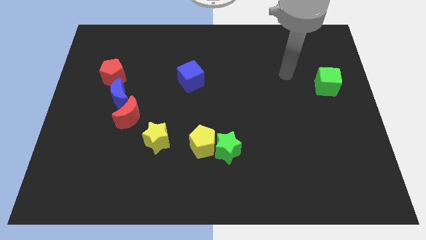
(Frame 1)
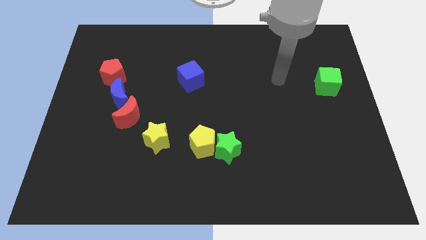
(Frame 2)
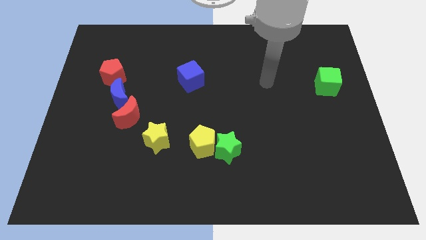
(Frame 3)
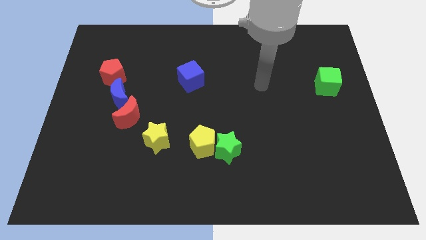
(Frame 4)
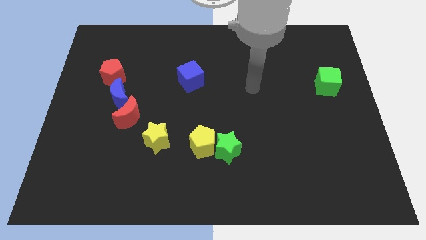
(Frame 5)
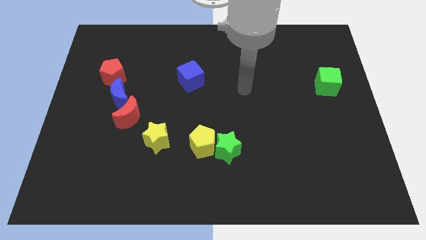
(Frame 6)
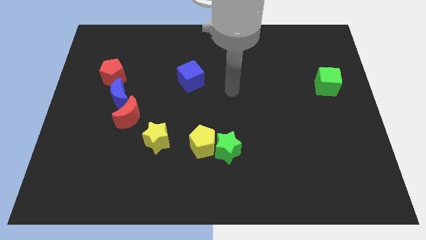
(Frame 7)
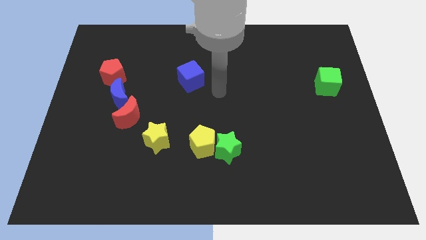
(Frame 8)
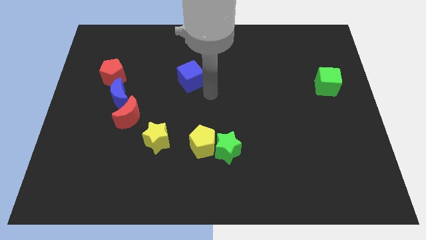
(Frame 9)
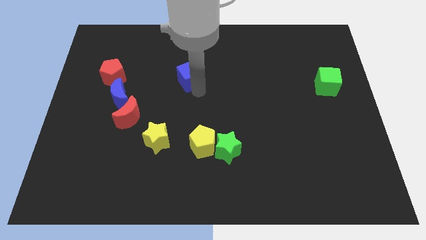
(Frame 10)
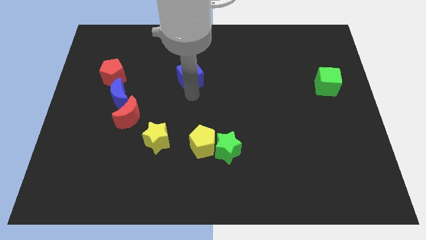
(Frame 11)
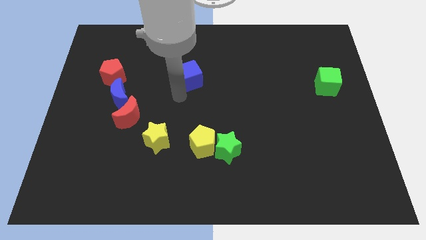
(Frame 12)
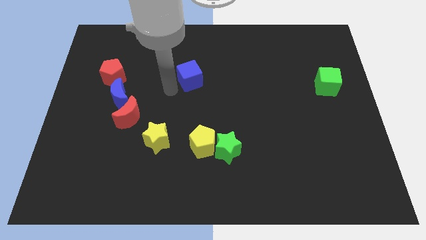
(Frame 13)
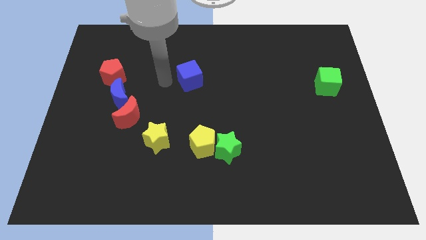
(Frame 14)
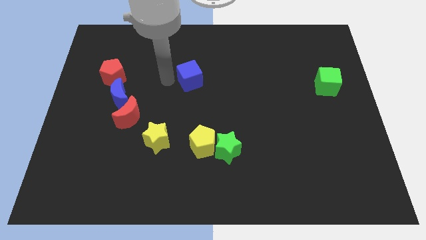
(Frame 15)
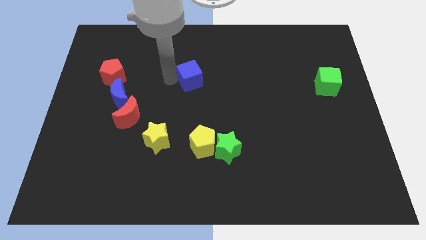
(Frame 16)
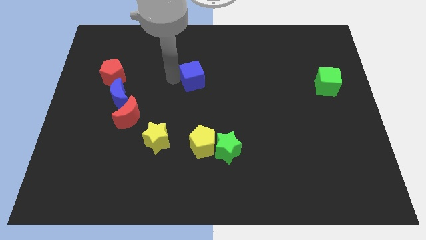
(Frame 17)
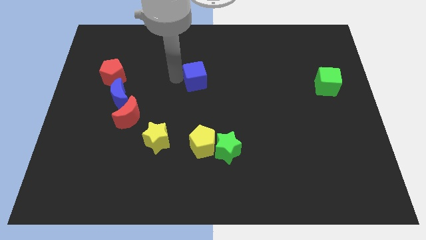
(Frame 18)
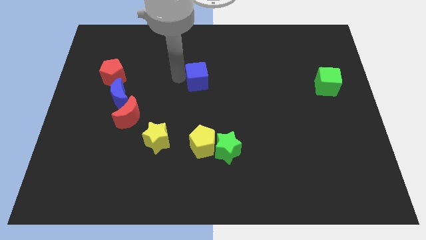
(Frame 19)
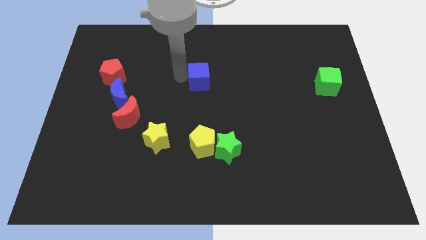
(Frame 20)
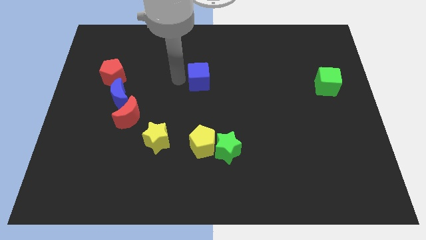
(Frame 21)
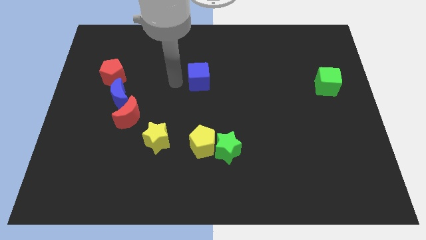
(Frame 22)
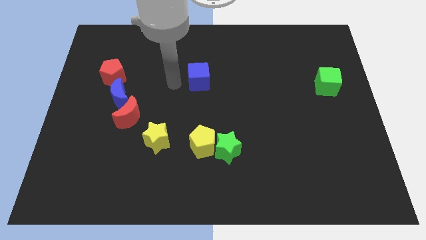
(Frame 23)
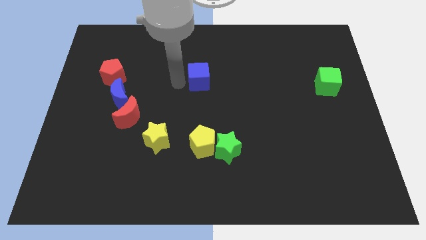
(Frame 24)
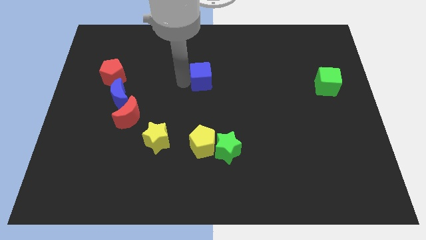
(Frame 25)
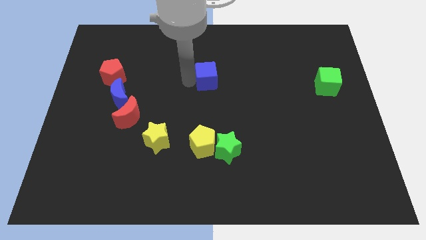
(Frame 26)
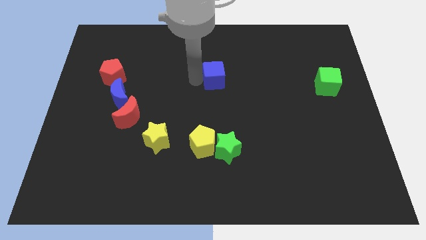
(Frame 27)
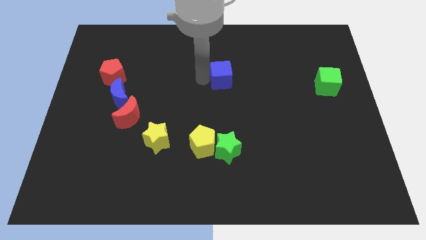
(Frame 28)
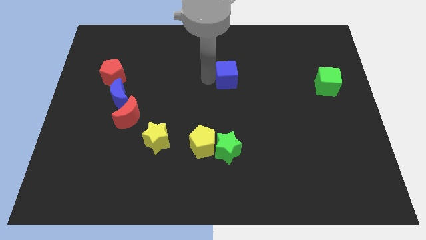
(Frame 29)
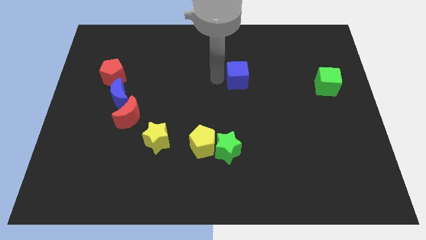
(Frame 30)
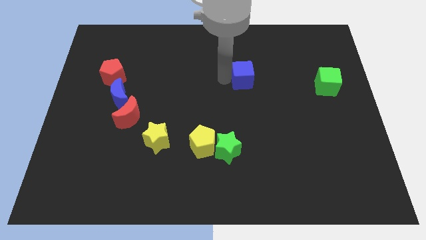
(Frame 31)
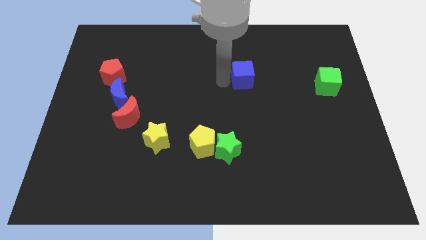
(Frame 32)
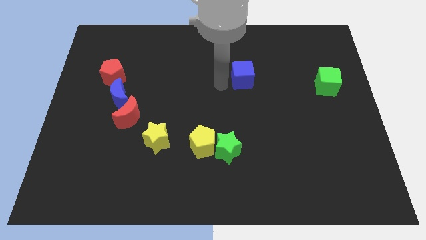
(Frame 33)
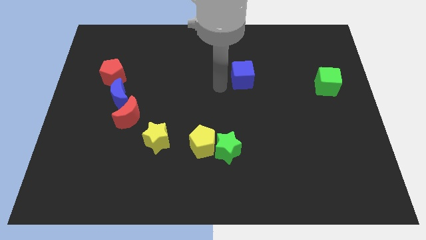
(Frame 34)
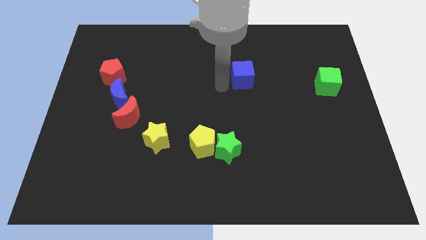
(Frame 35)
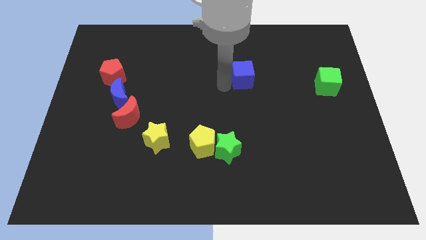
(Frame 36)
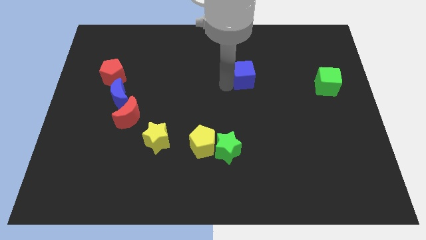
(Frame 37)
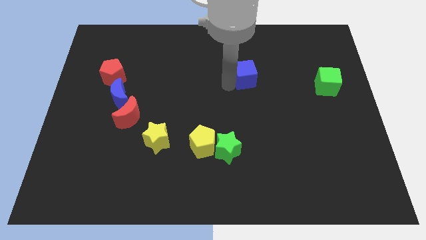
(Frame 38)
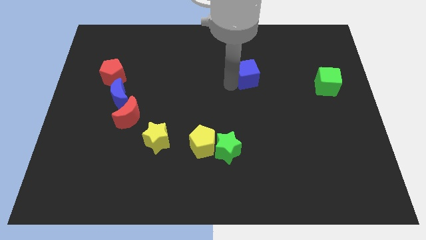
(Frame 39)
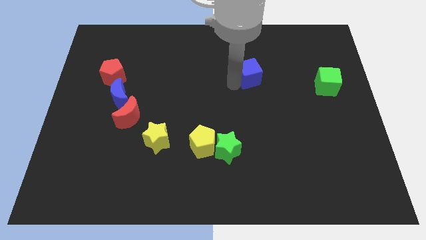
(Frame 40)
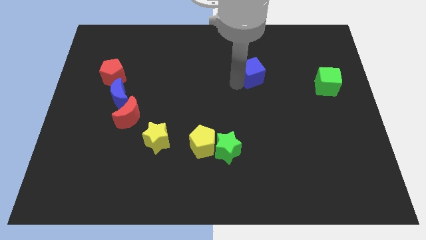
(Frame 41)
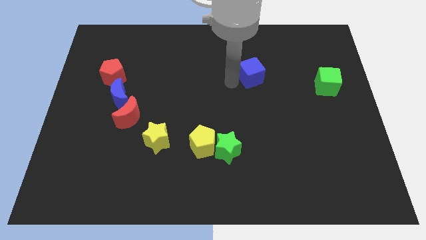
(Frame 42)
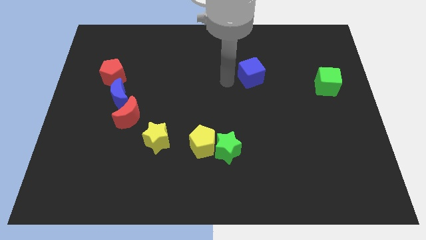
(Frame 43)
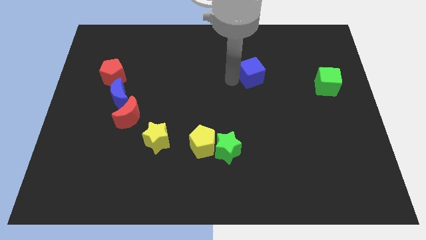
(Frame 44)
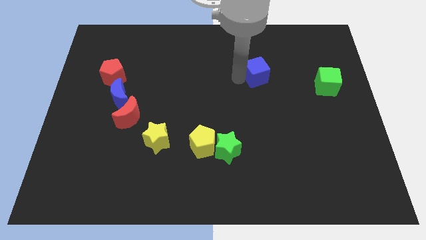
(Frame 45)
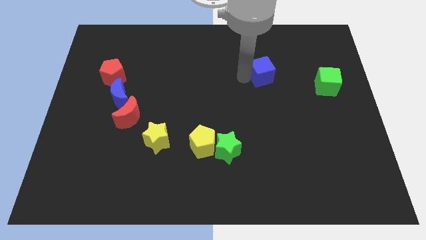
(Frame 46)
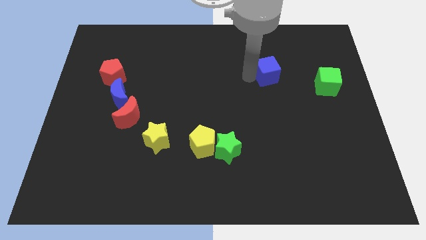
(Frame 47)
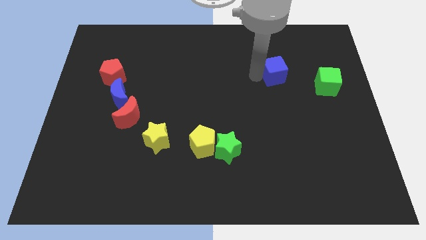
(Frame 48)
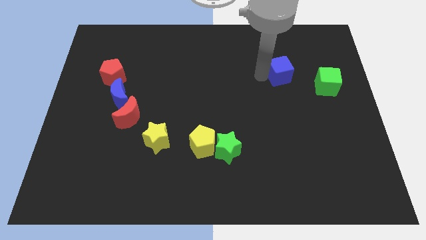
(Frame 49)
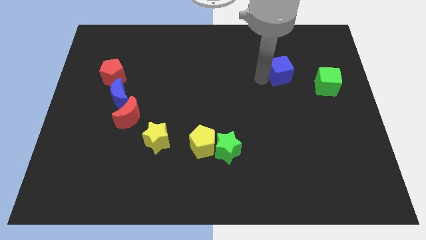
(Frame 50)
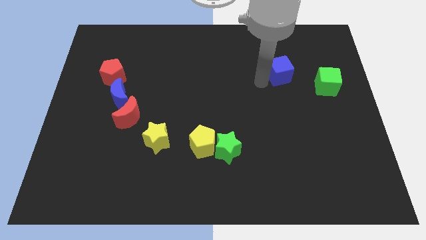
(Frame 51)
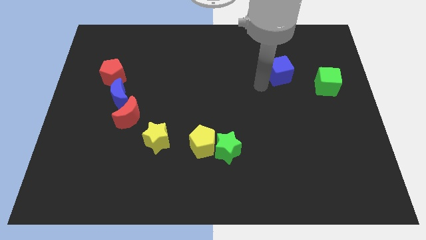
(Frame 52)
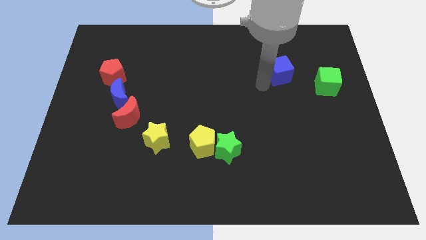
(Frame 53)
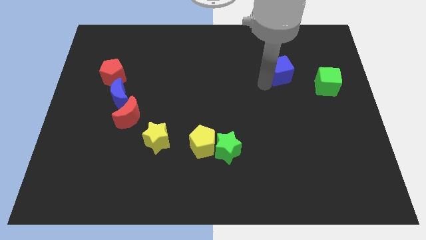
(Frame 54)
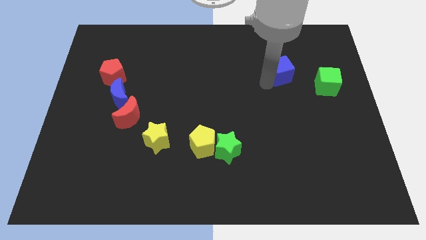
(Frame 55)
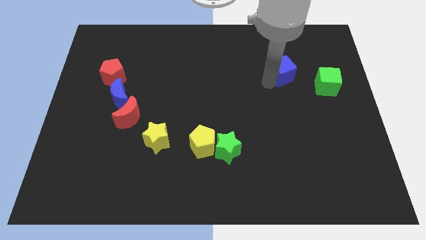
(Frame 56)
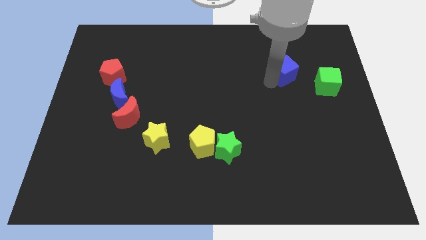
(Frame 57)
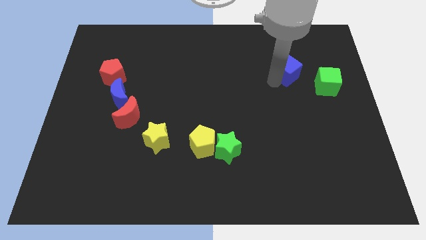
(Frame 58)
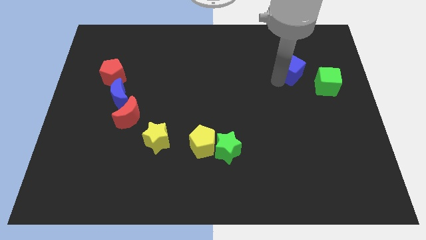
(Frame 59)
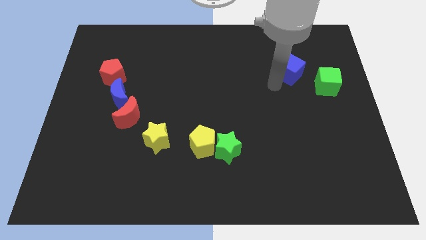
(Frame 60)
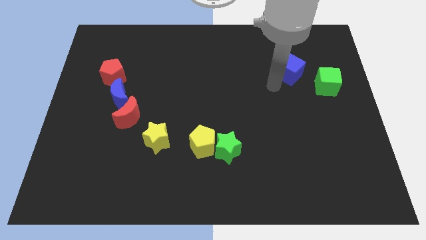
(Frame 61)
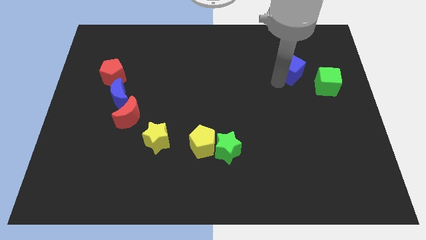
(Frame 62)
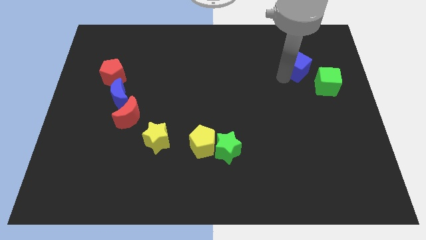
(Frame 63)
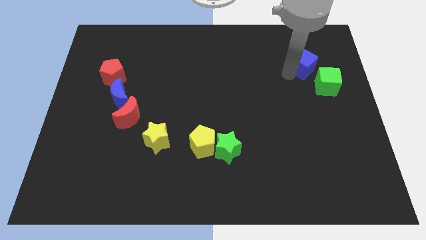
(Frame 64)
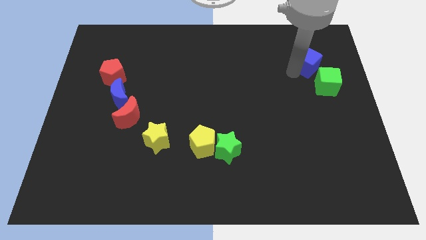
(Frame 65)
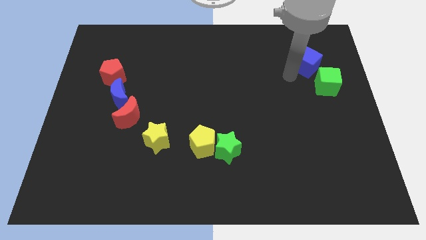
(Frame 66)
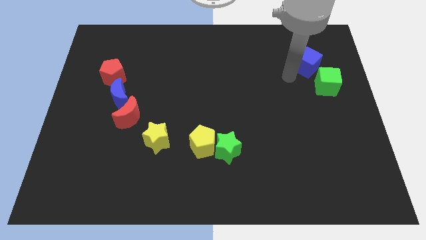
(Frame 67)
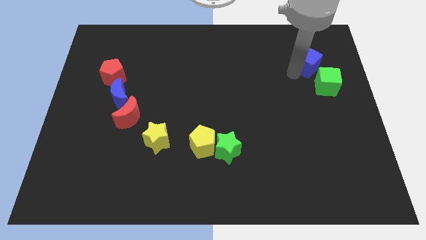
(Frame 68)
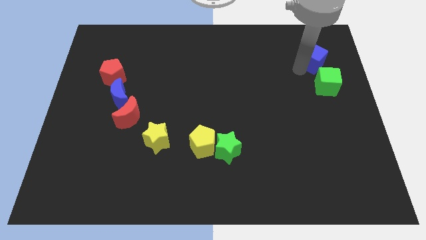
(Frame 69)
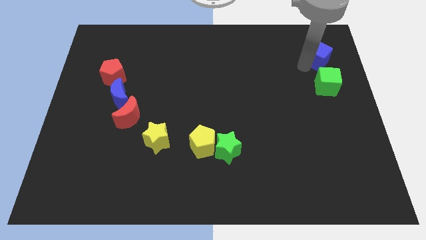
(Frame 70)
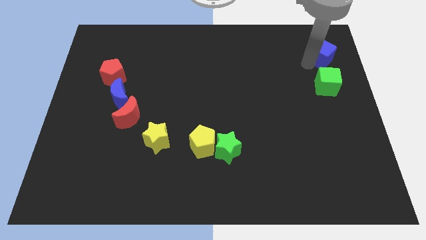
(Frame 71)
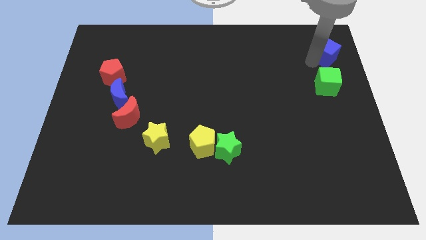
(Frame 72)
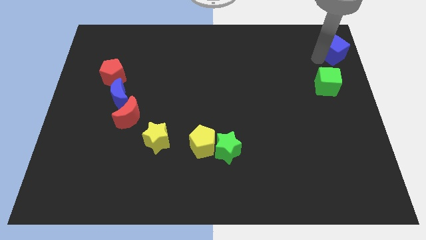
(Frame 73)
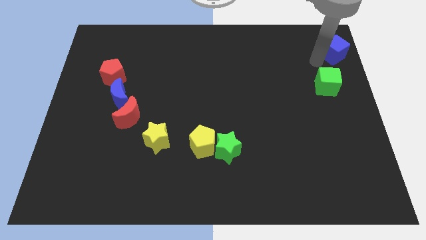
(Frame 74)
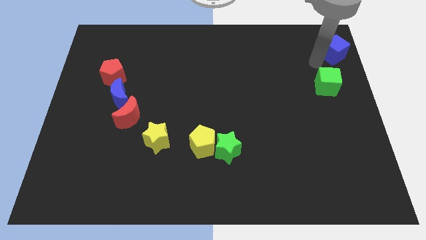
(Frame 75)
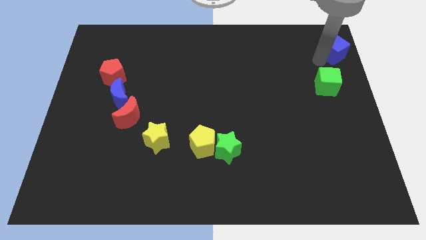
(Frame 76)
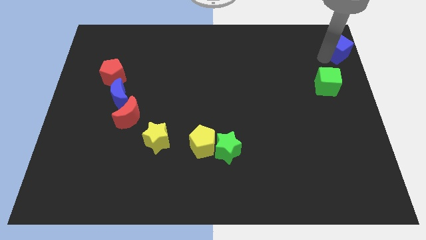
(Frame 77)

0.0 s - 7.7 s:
push the blue cube to the top right
